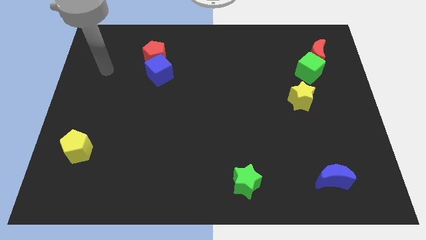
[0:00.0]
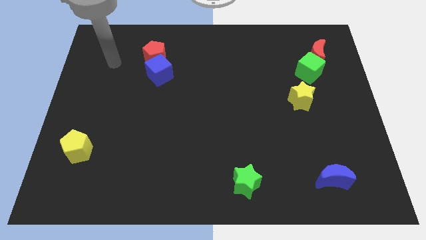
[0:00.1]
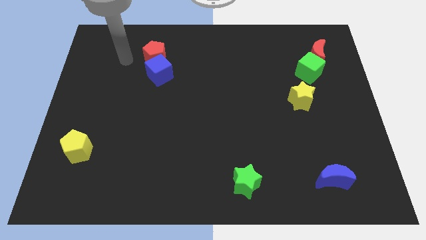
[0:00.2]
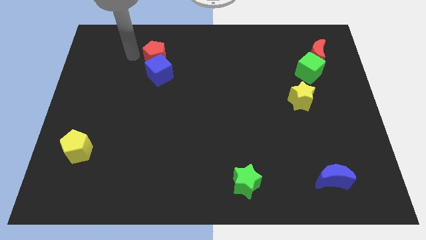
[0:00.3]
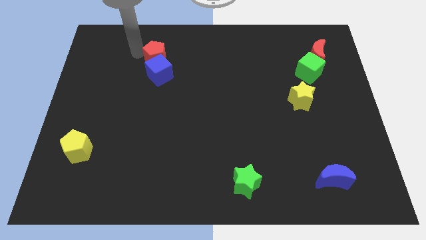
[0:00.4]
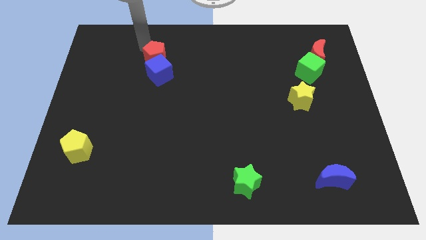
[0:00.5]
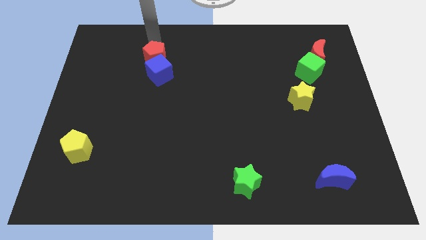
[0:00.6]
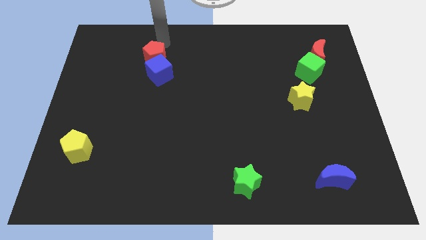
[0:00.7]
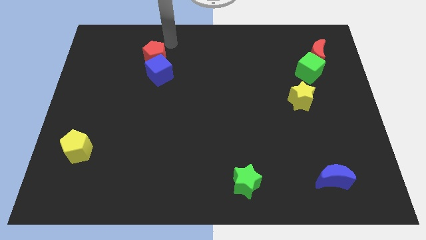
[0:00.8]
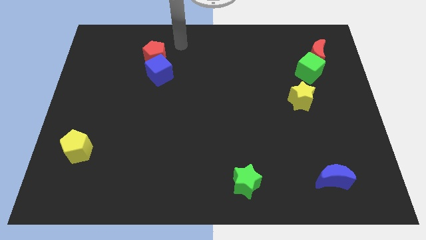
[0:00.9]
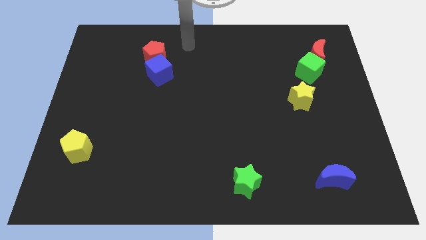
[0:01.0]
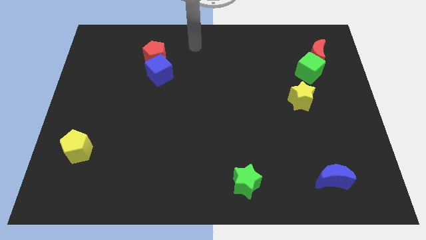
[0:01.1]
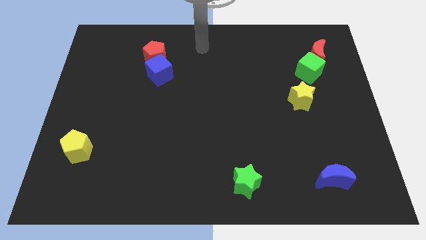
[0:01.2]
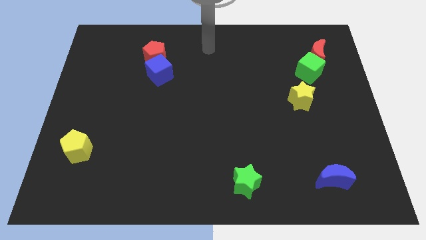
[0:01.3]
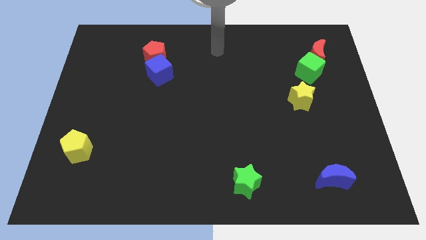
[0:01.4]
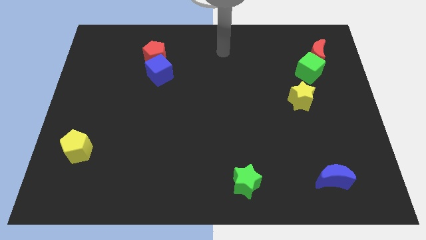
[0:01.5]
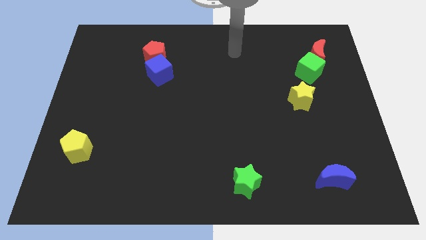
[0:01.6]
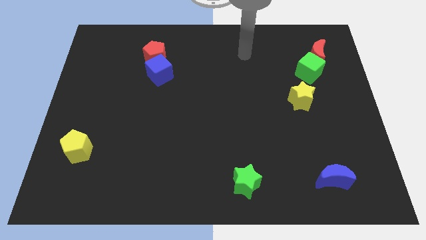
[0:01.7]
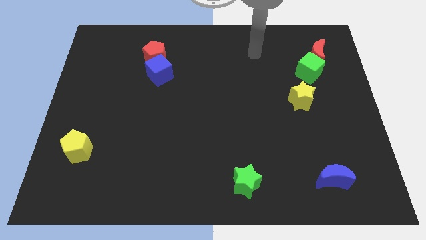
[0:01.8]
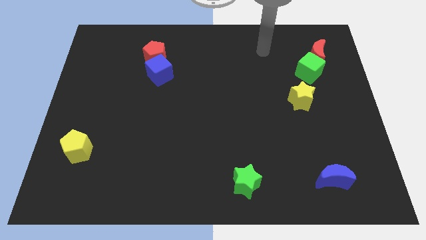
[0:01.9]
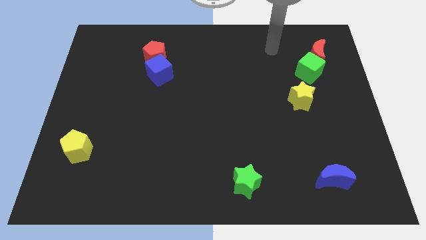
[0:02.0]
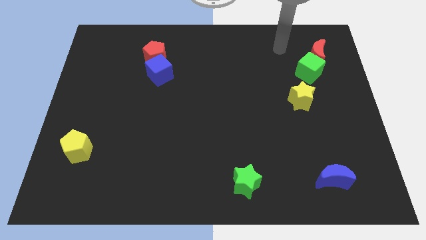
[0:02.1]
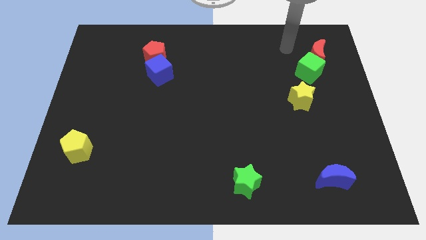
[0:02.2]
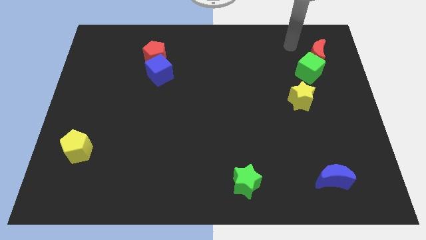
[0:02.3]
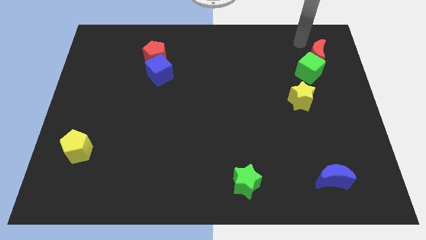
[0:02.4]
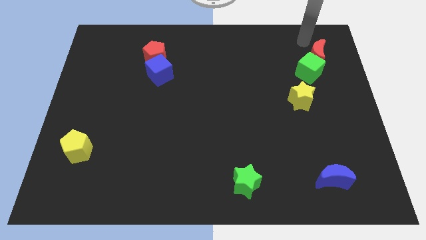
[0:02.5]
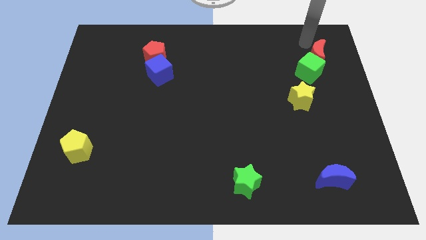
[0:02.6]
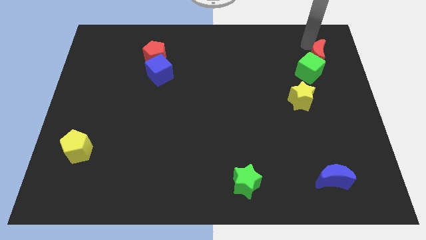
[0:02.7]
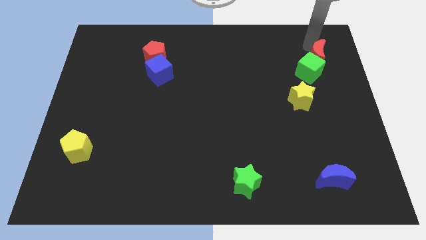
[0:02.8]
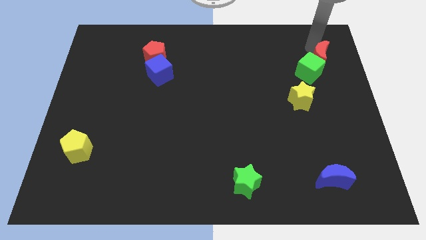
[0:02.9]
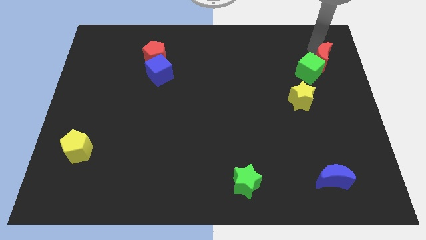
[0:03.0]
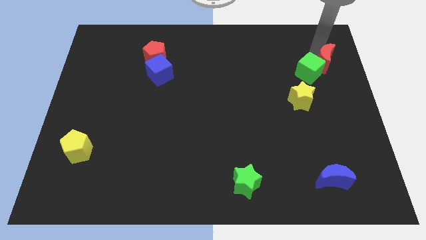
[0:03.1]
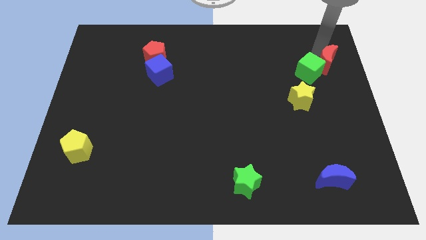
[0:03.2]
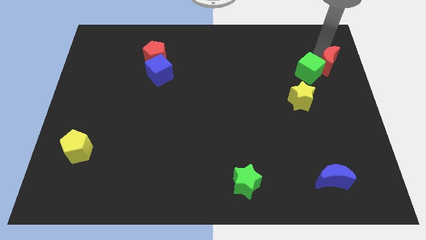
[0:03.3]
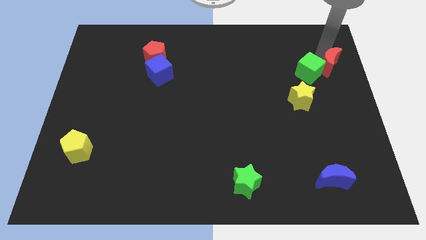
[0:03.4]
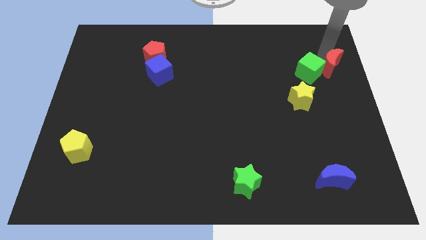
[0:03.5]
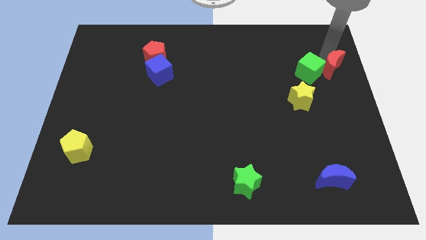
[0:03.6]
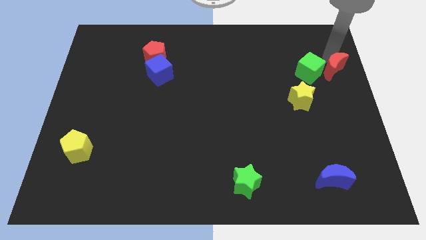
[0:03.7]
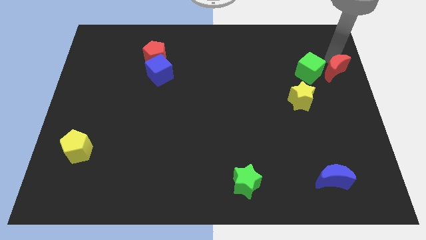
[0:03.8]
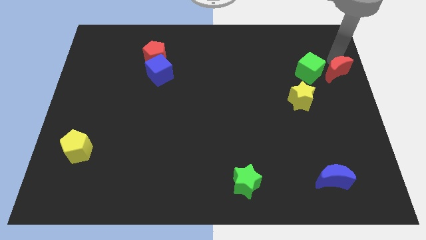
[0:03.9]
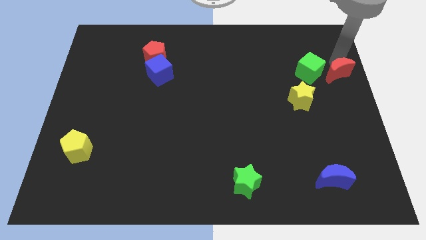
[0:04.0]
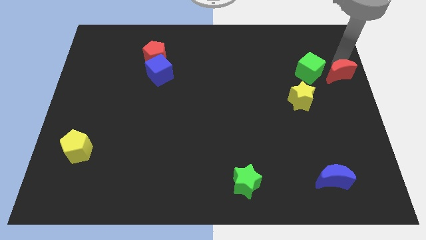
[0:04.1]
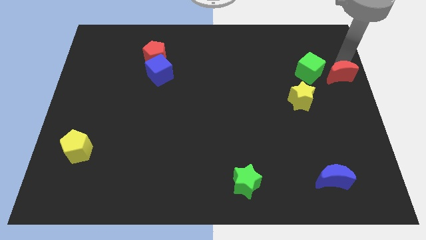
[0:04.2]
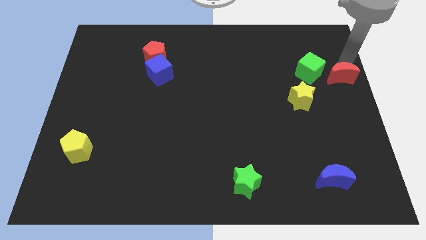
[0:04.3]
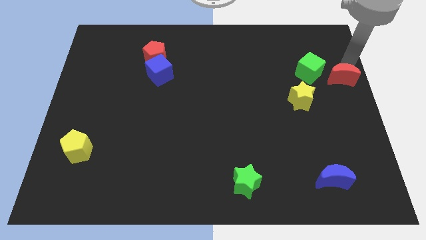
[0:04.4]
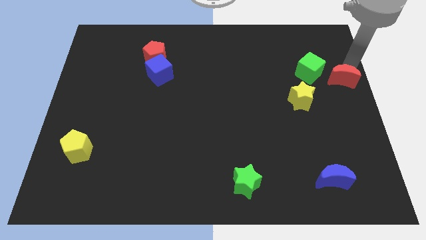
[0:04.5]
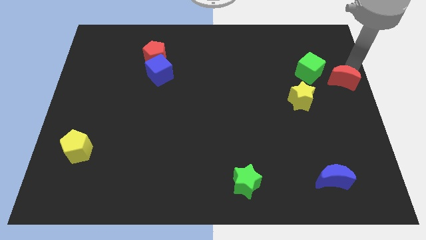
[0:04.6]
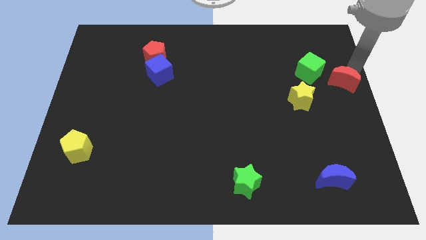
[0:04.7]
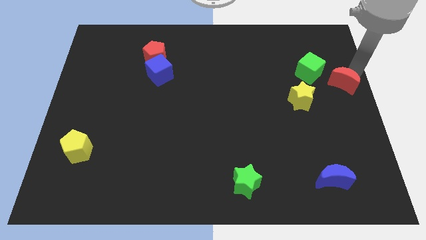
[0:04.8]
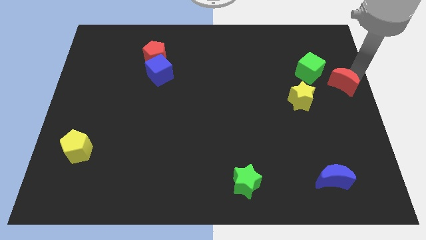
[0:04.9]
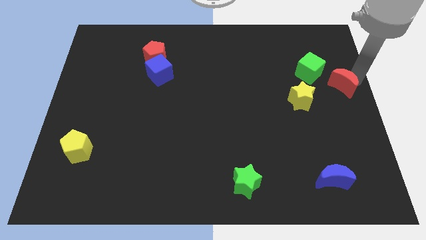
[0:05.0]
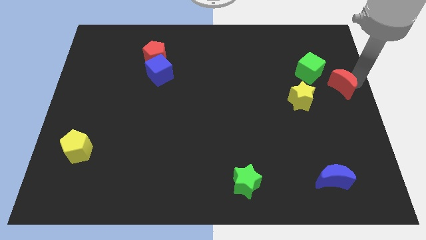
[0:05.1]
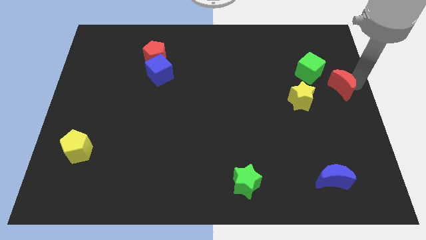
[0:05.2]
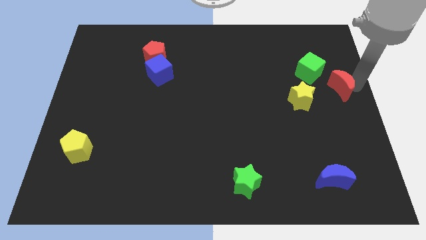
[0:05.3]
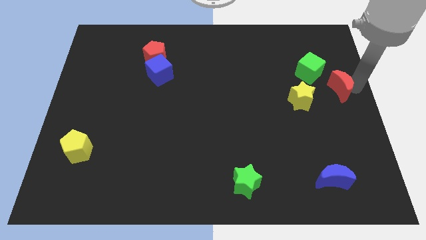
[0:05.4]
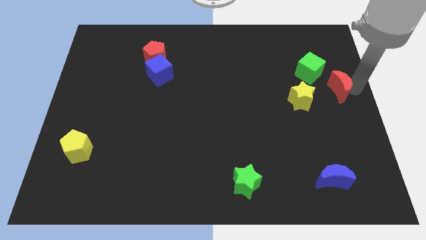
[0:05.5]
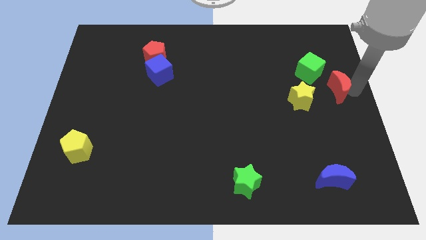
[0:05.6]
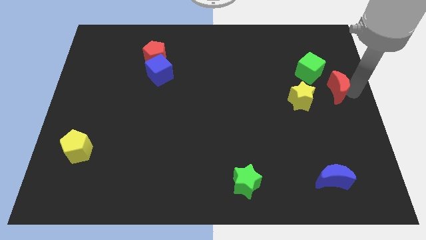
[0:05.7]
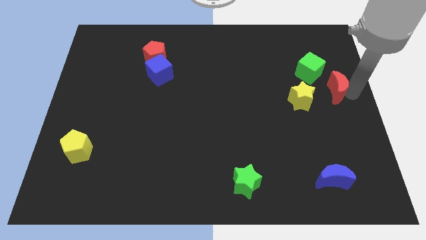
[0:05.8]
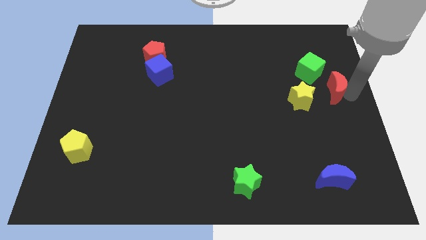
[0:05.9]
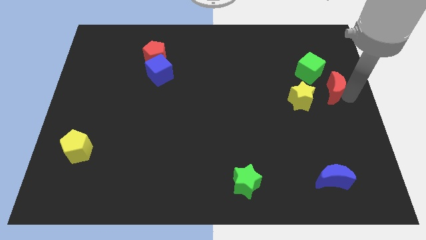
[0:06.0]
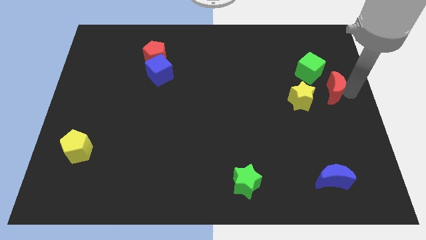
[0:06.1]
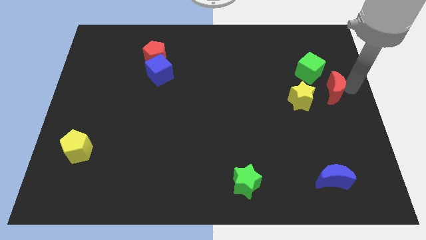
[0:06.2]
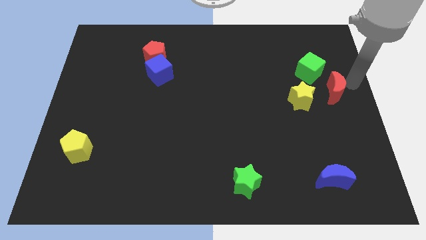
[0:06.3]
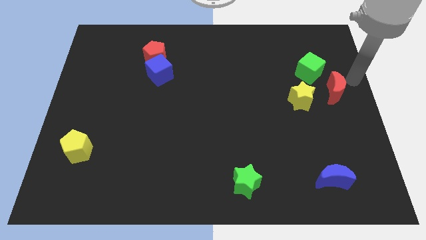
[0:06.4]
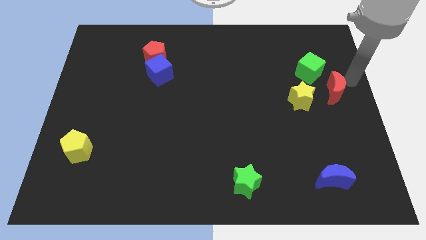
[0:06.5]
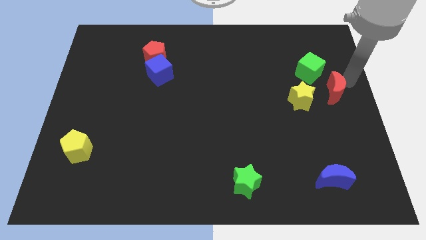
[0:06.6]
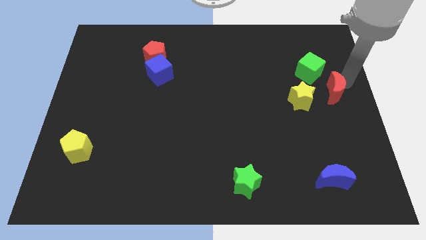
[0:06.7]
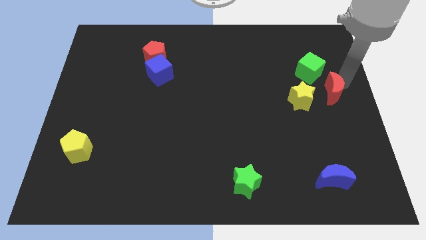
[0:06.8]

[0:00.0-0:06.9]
slide the red moon to the bottom side of the green cube

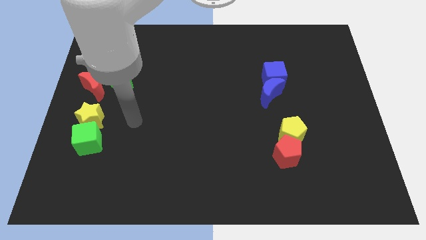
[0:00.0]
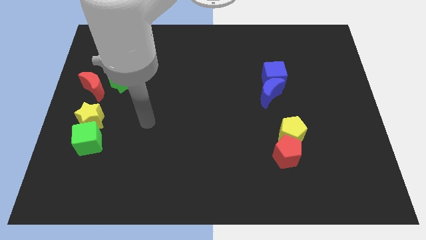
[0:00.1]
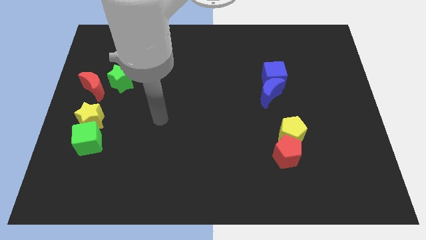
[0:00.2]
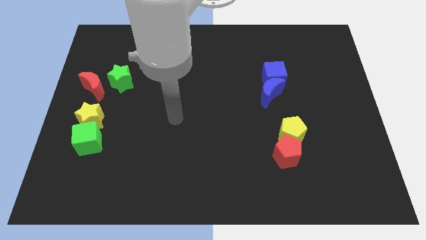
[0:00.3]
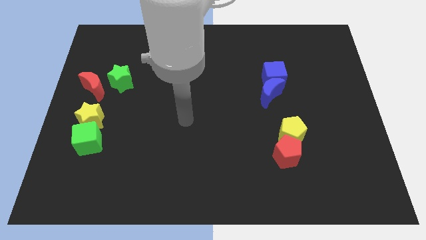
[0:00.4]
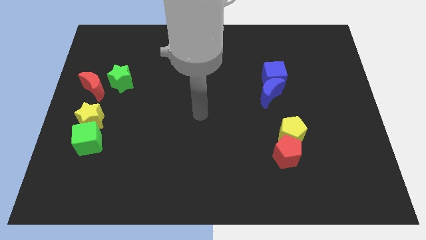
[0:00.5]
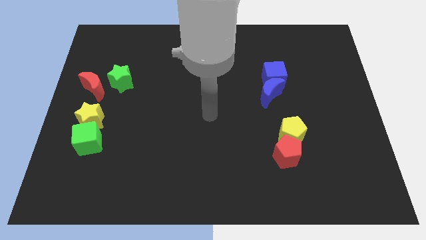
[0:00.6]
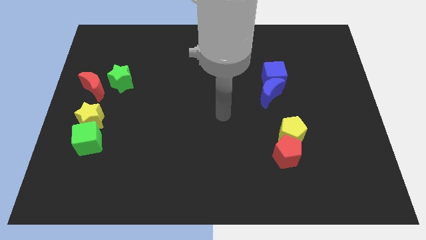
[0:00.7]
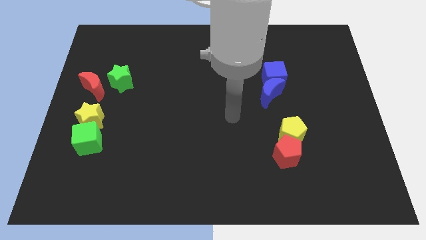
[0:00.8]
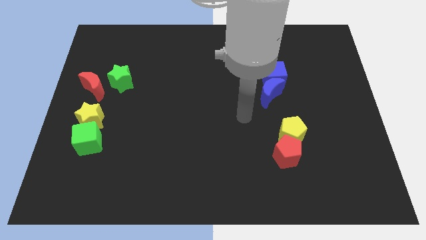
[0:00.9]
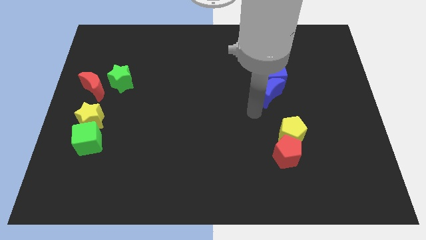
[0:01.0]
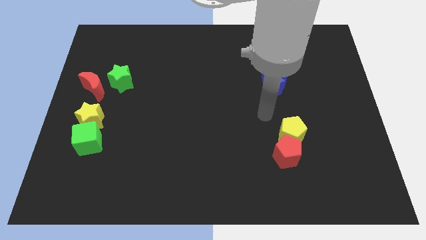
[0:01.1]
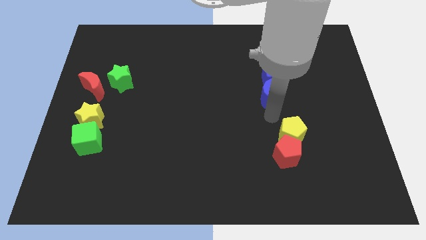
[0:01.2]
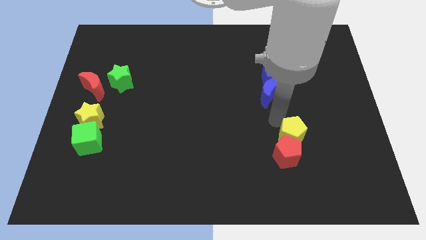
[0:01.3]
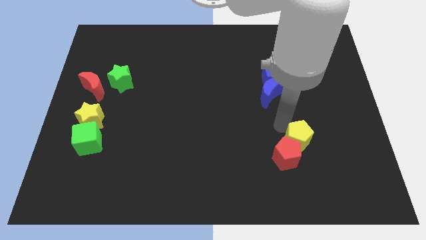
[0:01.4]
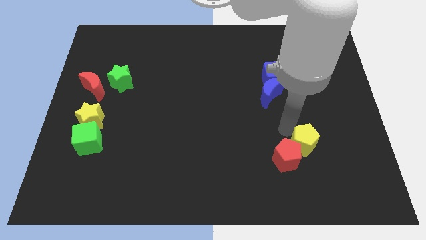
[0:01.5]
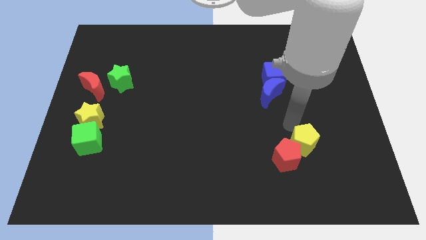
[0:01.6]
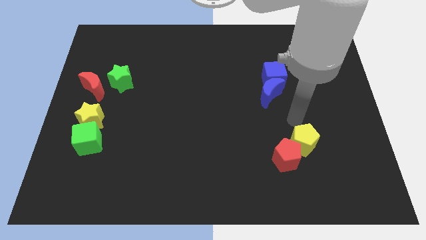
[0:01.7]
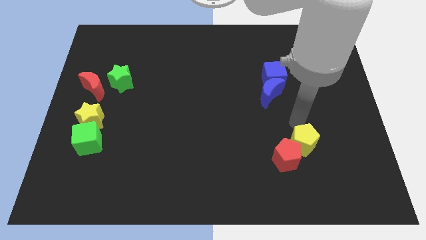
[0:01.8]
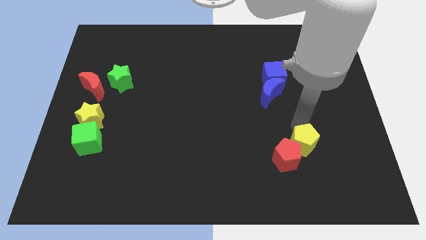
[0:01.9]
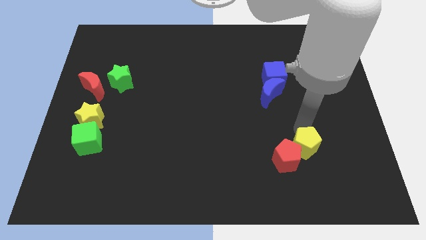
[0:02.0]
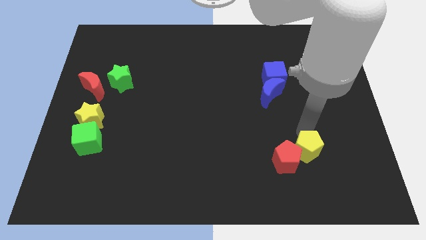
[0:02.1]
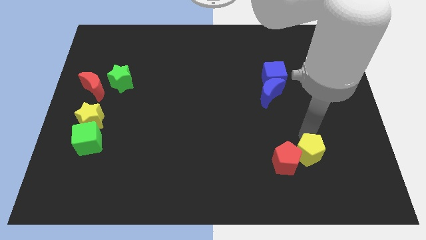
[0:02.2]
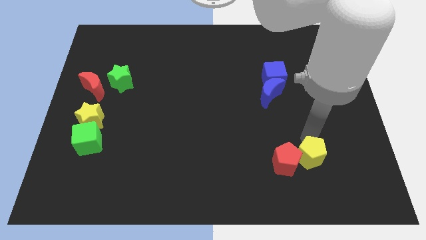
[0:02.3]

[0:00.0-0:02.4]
slide the yellow pentagon to the bottom right side of the red pentagon
